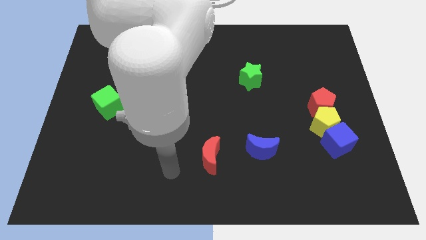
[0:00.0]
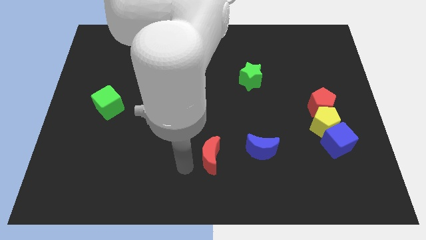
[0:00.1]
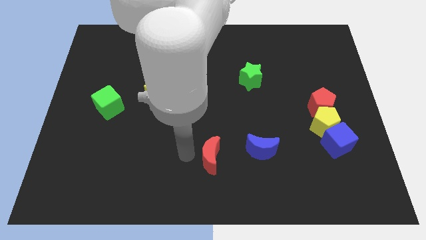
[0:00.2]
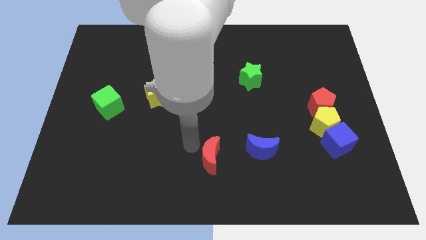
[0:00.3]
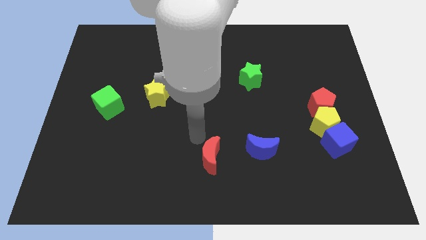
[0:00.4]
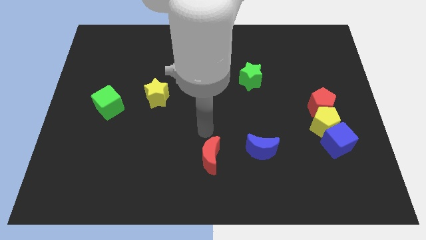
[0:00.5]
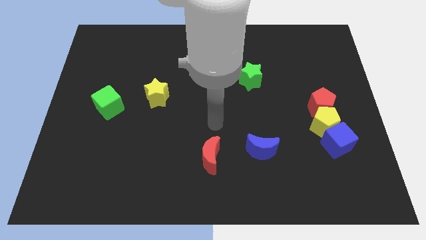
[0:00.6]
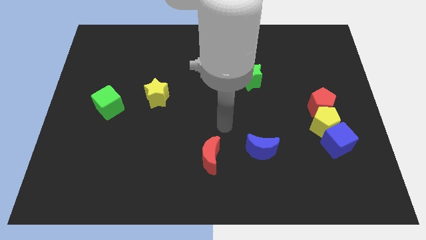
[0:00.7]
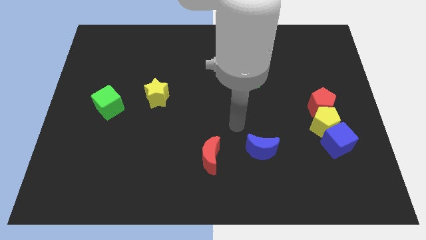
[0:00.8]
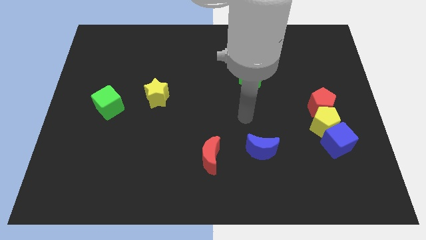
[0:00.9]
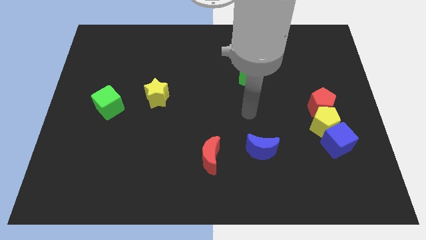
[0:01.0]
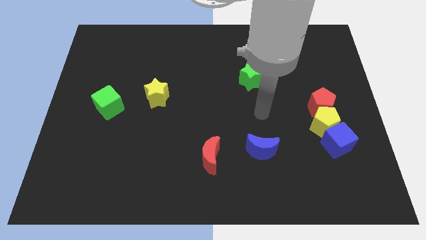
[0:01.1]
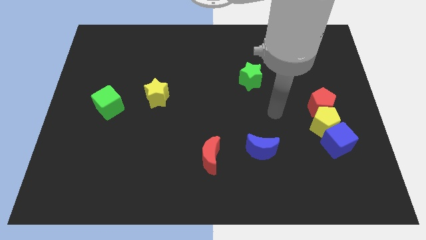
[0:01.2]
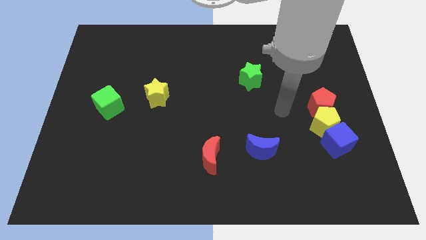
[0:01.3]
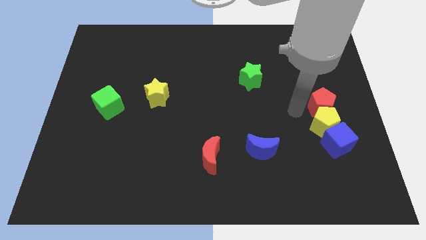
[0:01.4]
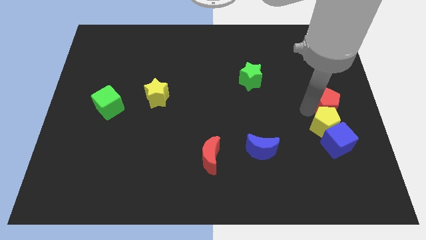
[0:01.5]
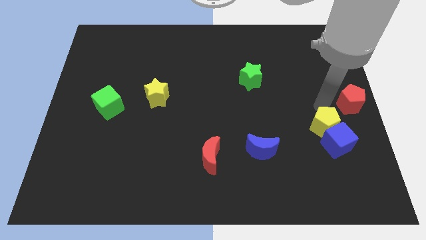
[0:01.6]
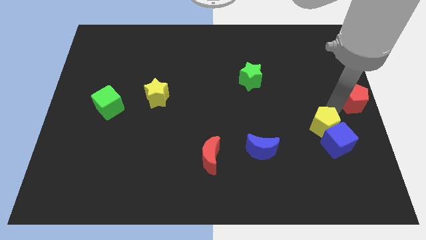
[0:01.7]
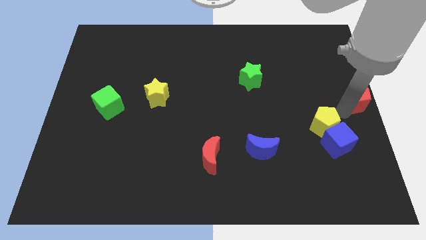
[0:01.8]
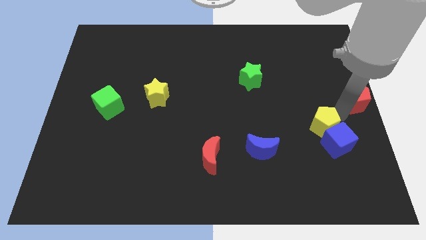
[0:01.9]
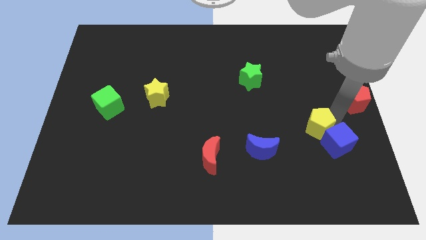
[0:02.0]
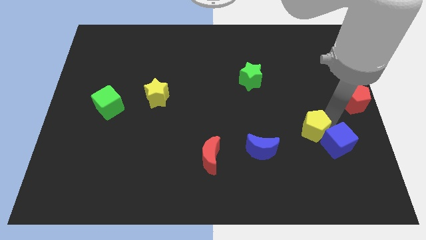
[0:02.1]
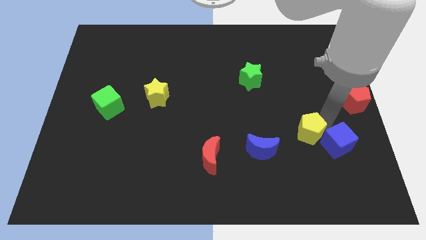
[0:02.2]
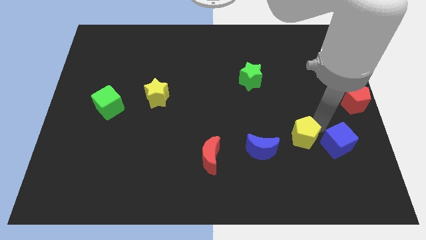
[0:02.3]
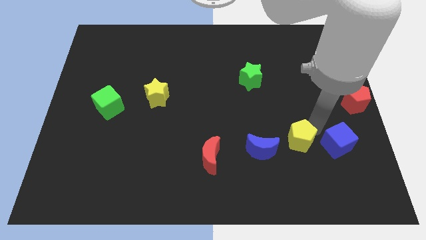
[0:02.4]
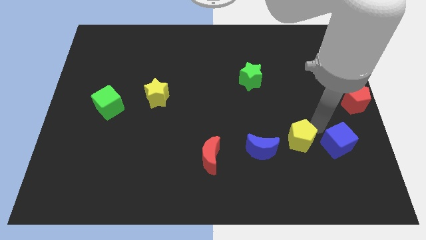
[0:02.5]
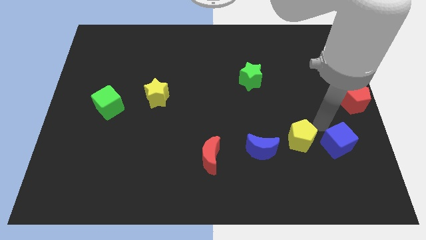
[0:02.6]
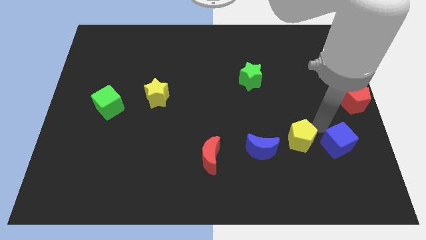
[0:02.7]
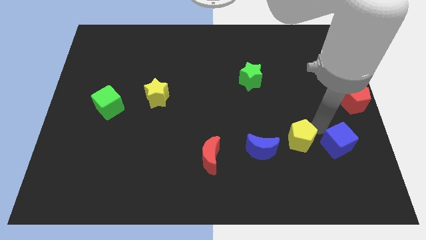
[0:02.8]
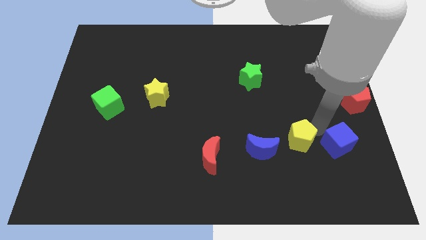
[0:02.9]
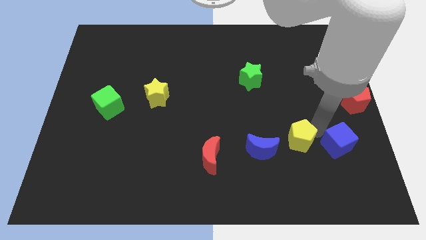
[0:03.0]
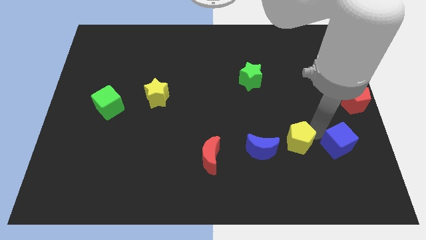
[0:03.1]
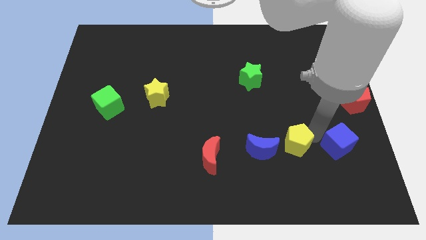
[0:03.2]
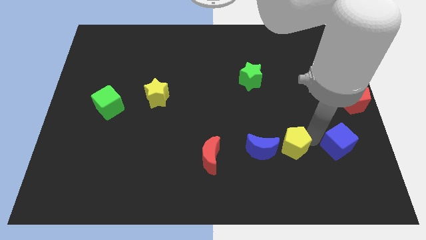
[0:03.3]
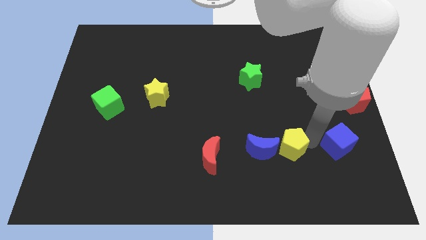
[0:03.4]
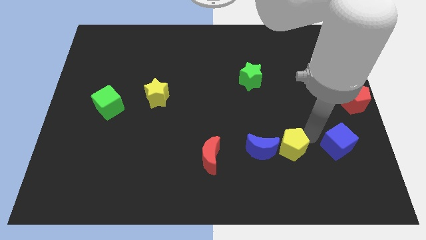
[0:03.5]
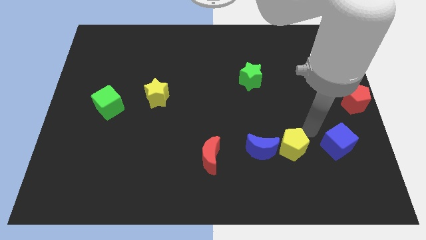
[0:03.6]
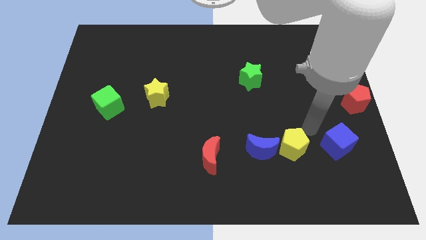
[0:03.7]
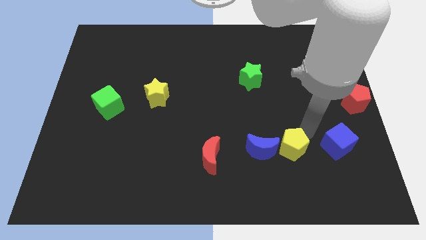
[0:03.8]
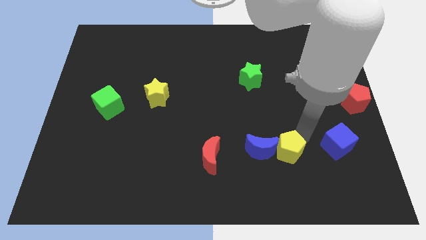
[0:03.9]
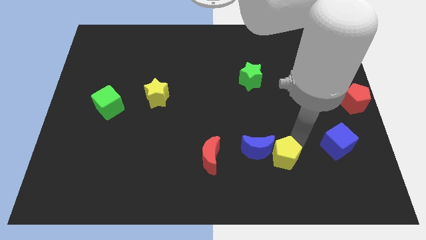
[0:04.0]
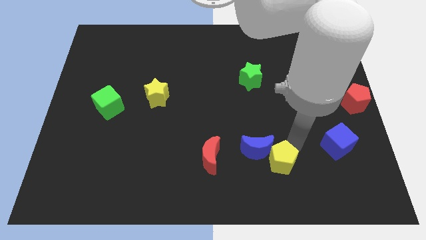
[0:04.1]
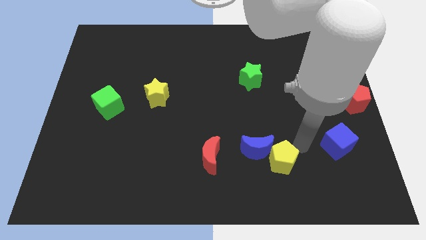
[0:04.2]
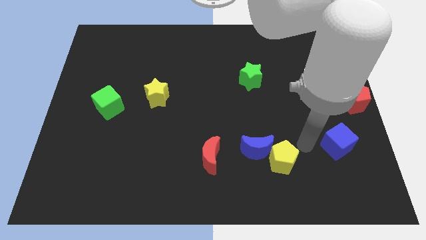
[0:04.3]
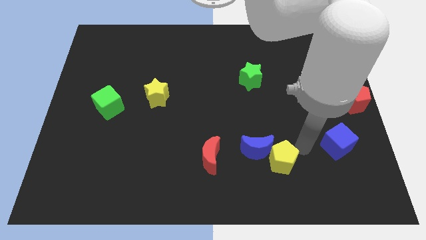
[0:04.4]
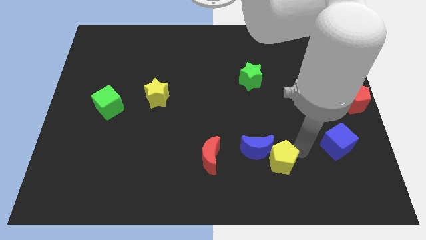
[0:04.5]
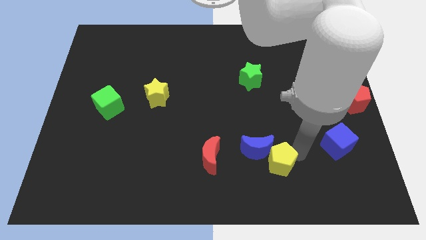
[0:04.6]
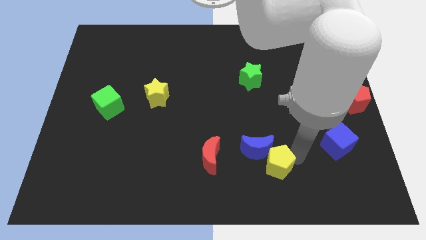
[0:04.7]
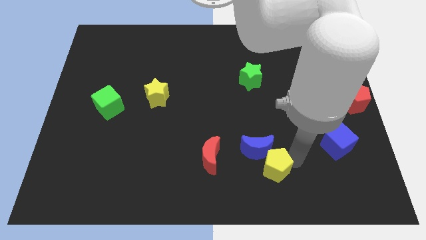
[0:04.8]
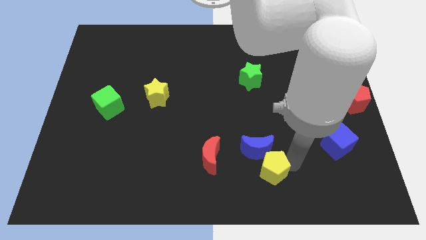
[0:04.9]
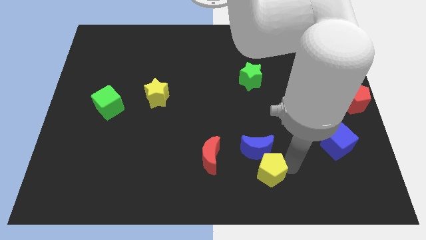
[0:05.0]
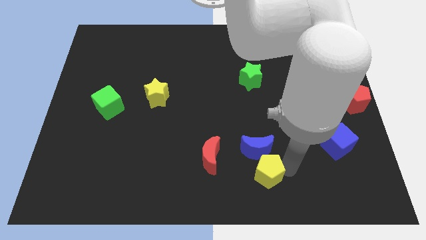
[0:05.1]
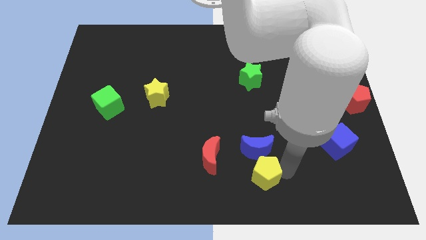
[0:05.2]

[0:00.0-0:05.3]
put the yellow pentagon to the bottom

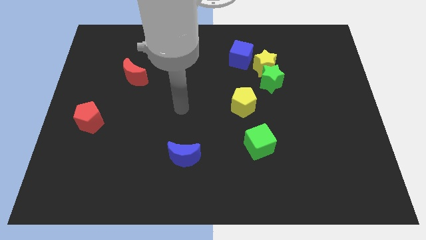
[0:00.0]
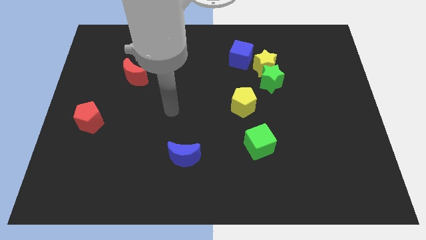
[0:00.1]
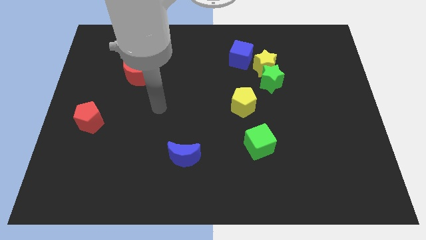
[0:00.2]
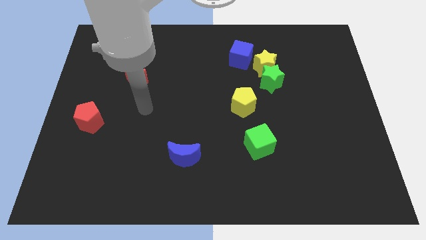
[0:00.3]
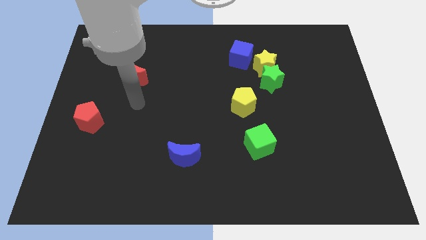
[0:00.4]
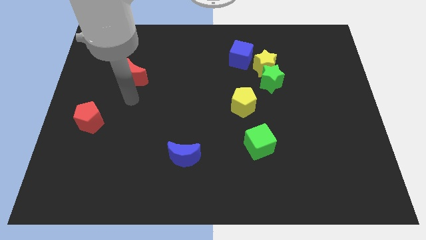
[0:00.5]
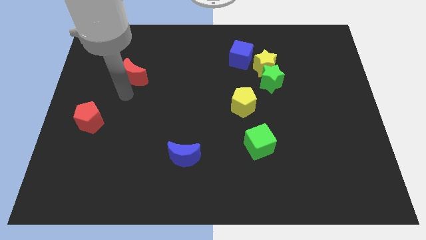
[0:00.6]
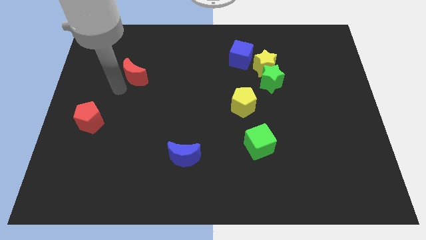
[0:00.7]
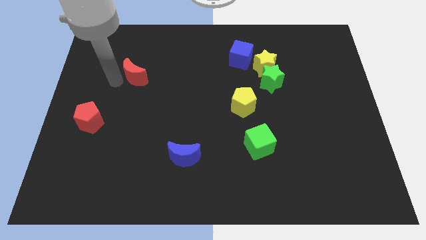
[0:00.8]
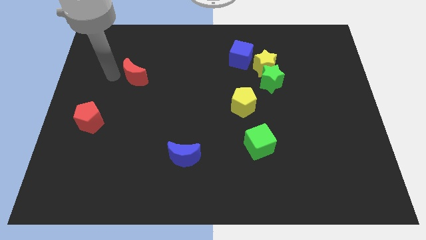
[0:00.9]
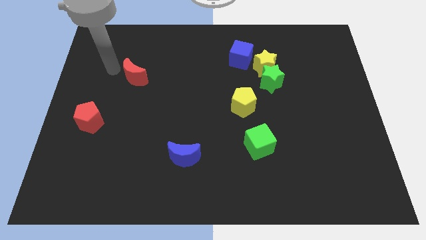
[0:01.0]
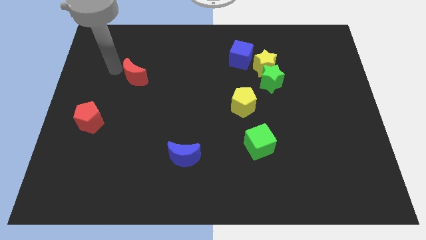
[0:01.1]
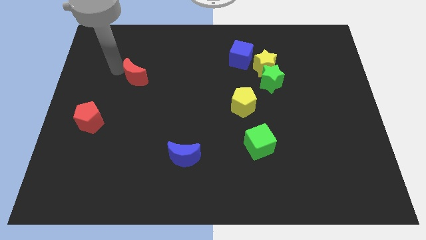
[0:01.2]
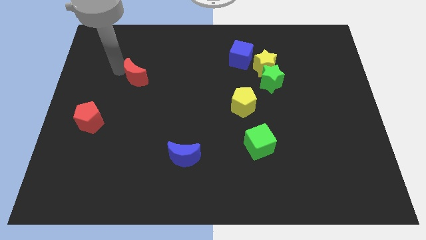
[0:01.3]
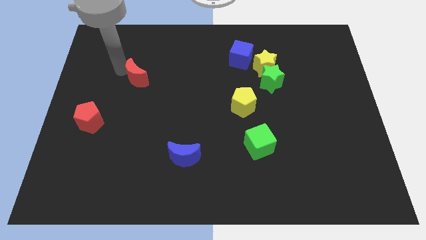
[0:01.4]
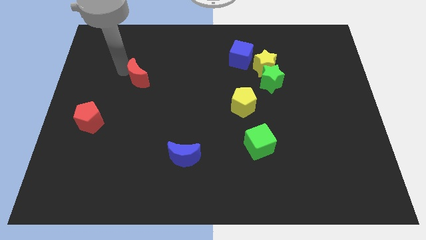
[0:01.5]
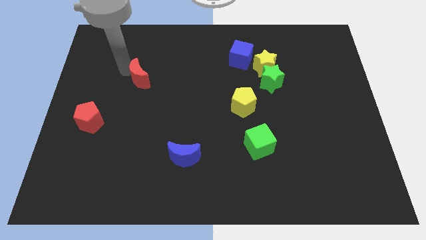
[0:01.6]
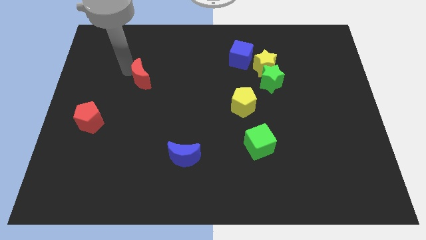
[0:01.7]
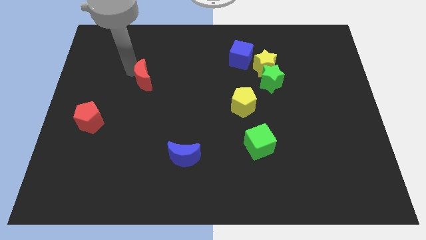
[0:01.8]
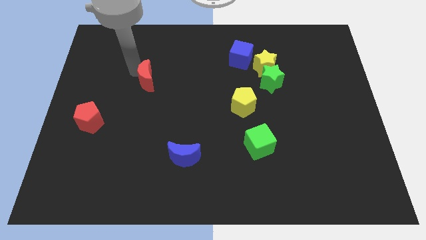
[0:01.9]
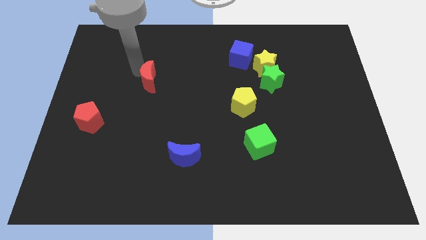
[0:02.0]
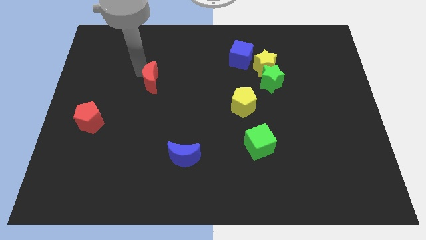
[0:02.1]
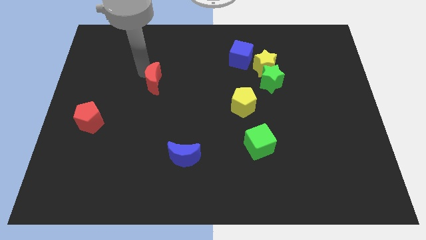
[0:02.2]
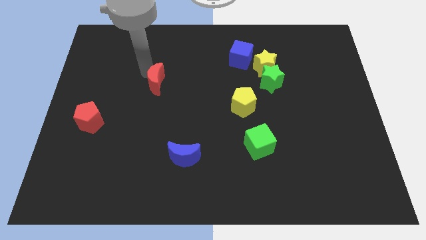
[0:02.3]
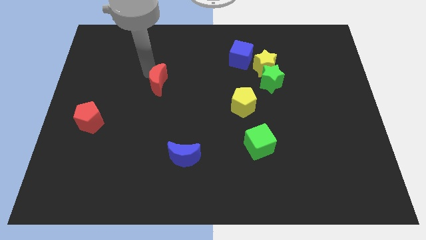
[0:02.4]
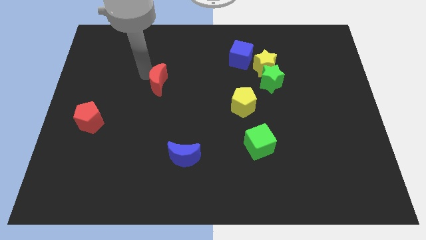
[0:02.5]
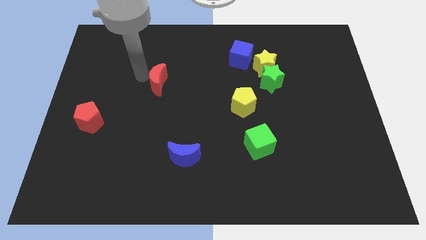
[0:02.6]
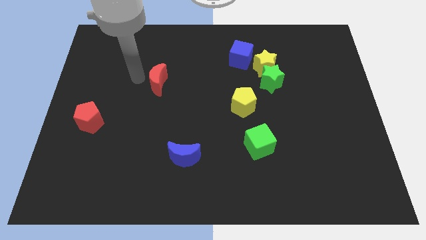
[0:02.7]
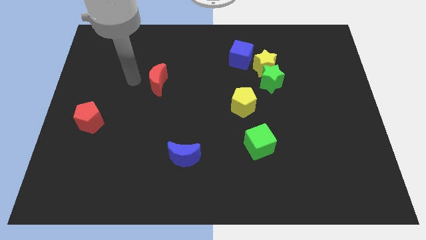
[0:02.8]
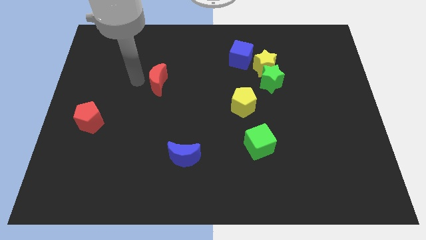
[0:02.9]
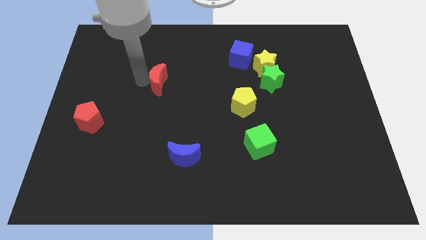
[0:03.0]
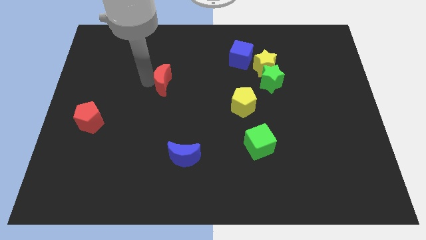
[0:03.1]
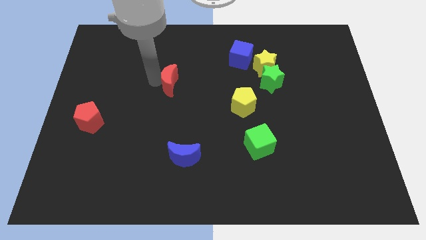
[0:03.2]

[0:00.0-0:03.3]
push the red moon to the center
